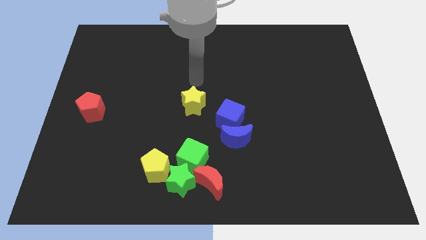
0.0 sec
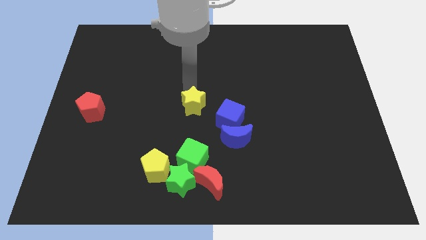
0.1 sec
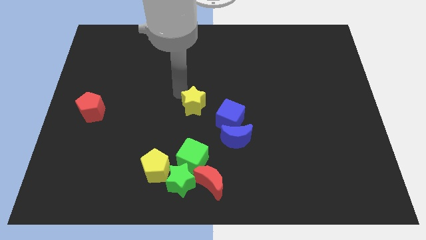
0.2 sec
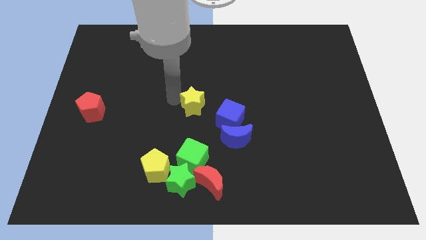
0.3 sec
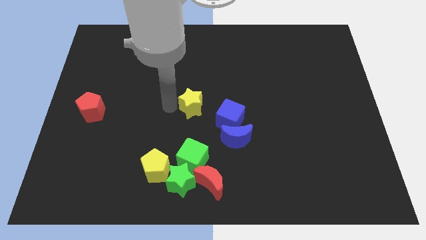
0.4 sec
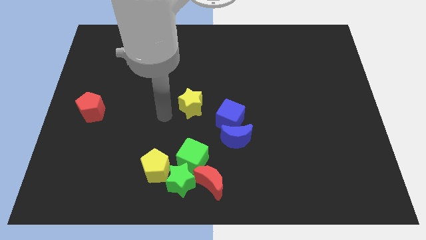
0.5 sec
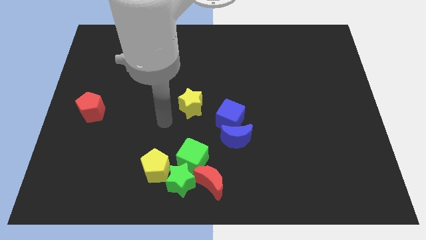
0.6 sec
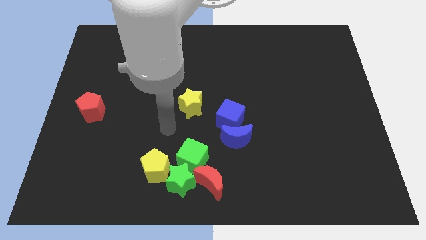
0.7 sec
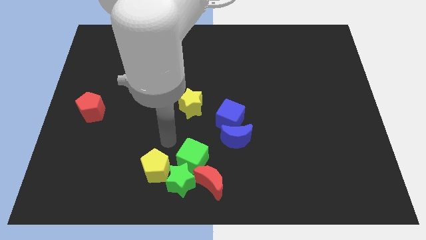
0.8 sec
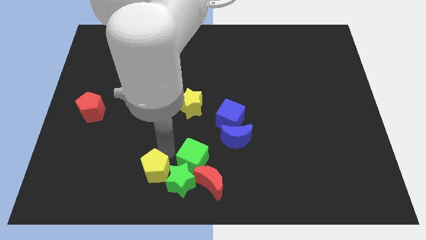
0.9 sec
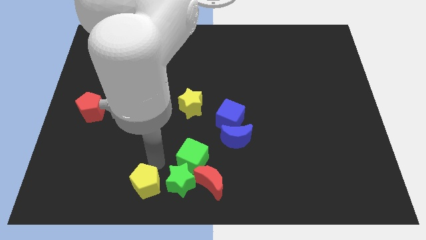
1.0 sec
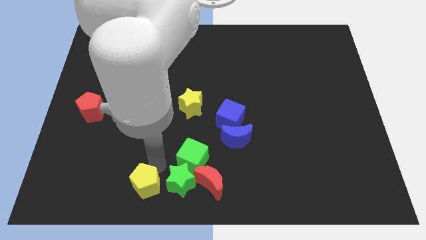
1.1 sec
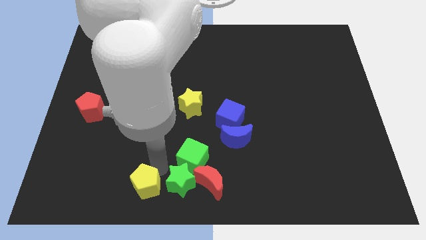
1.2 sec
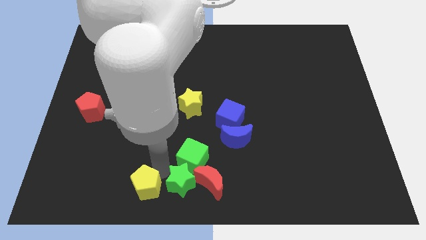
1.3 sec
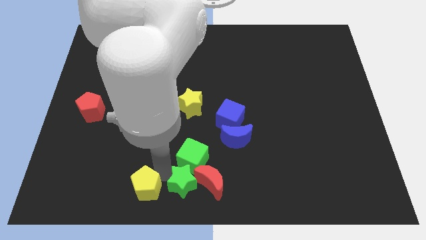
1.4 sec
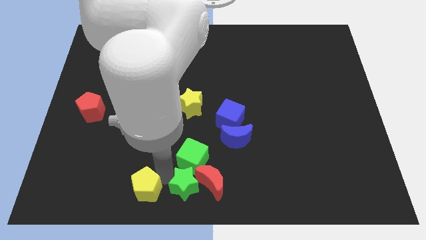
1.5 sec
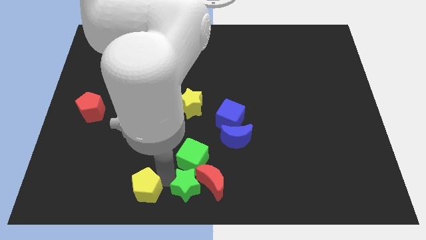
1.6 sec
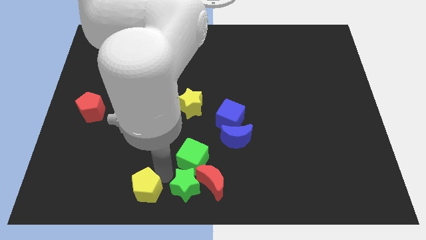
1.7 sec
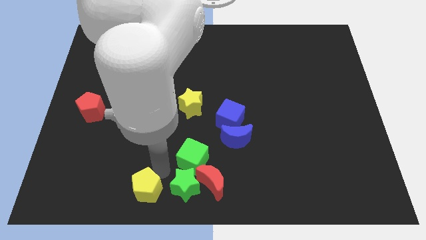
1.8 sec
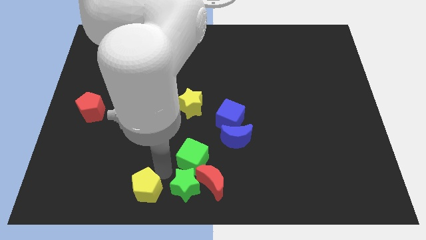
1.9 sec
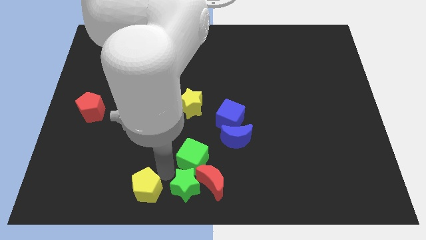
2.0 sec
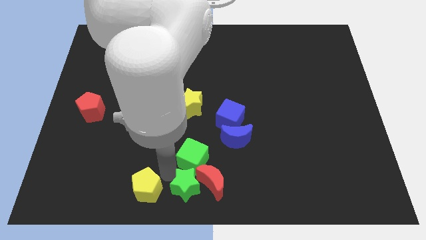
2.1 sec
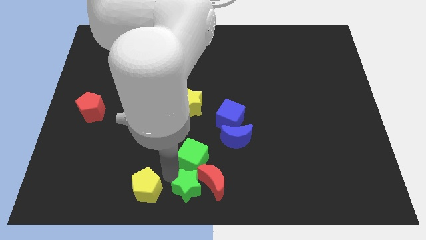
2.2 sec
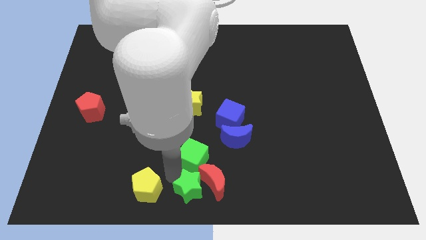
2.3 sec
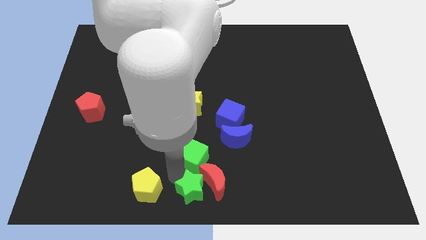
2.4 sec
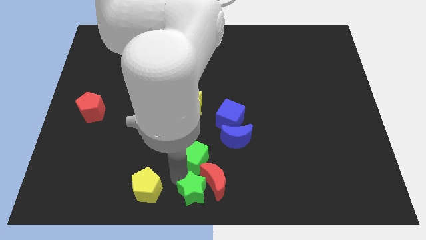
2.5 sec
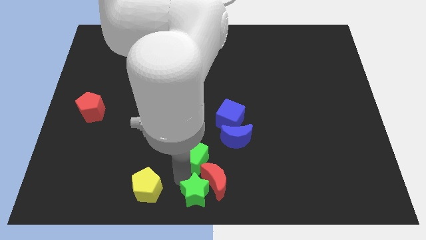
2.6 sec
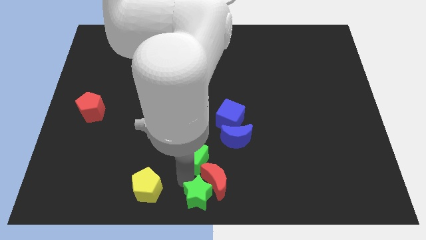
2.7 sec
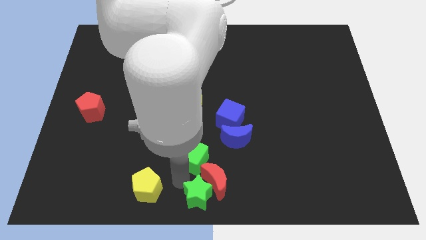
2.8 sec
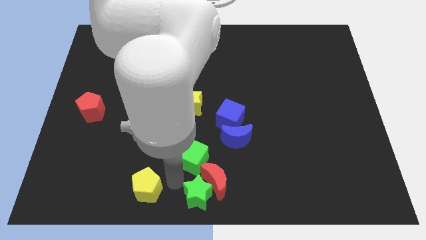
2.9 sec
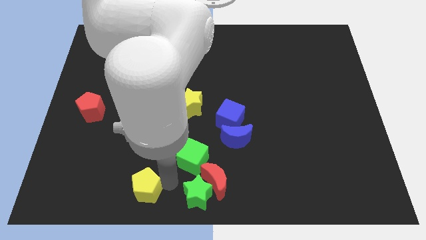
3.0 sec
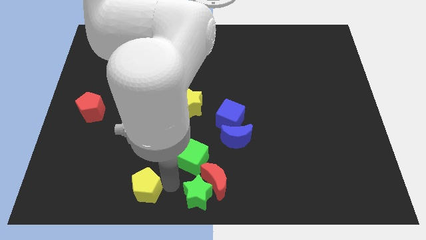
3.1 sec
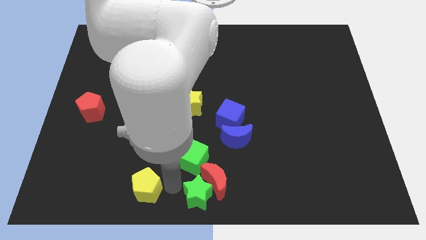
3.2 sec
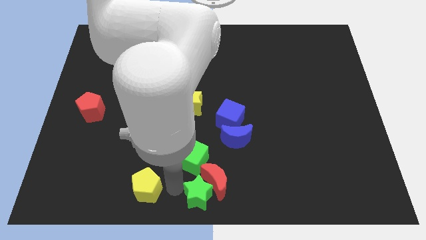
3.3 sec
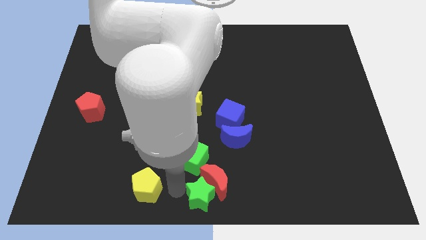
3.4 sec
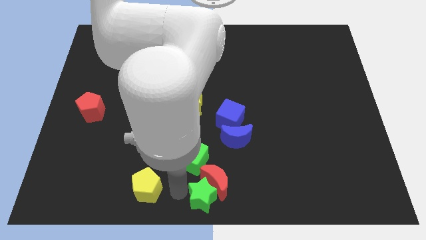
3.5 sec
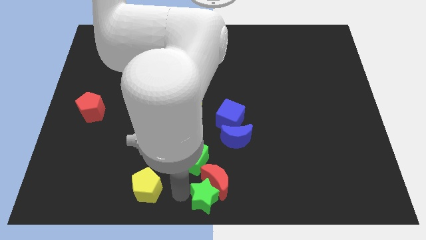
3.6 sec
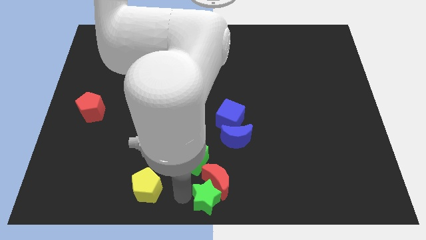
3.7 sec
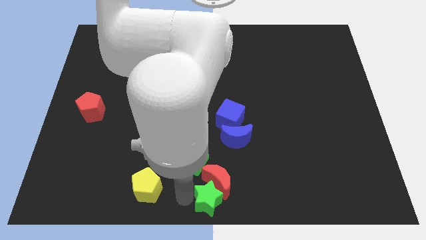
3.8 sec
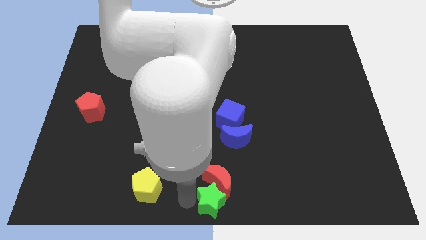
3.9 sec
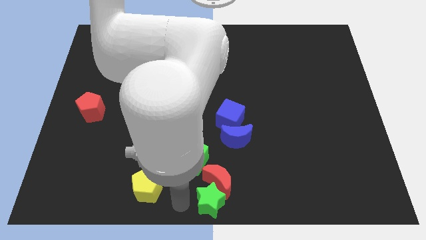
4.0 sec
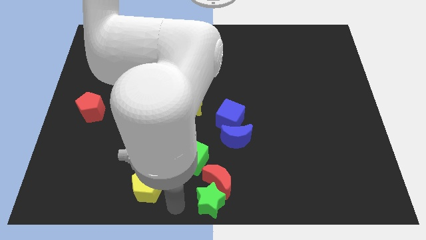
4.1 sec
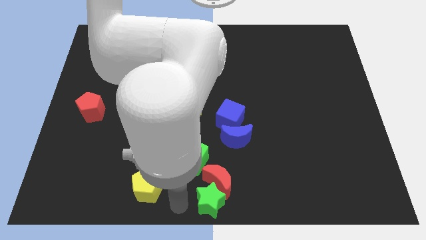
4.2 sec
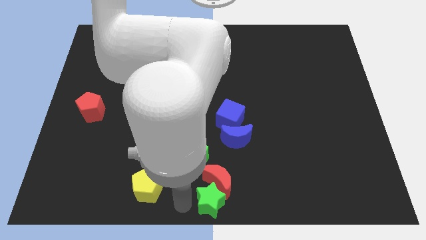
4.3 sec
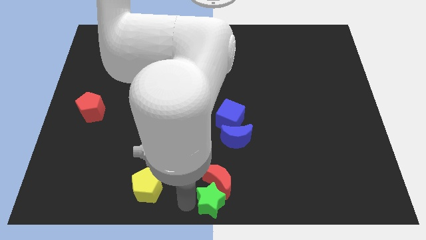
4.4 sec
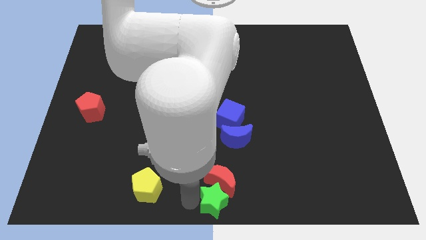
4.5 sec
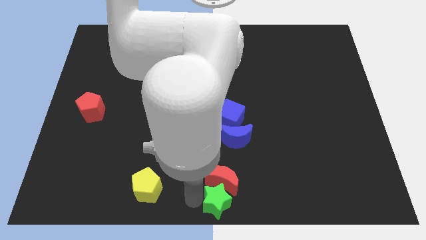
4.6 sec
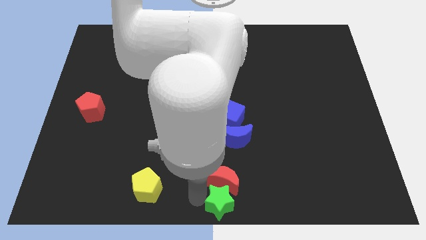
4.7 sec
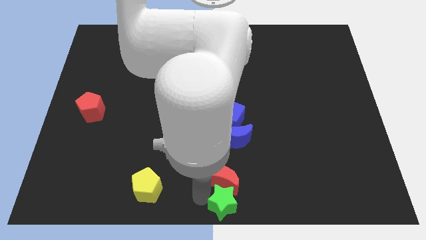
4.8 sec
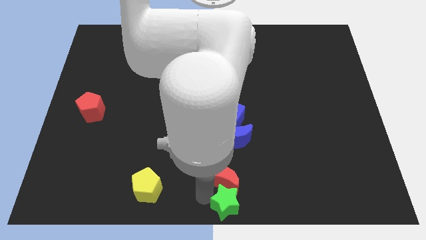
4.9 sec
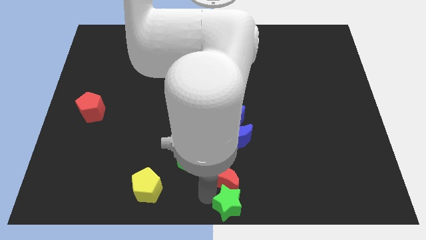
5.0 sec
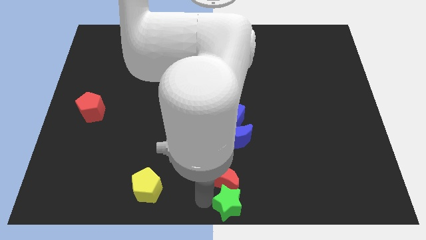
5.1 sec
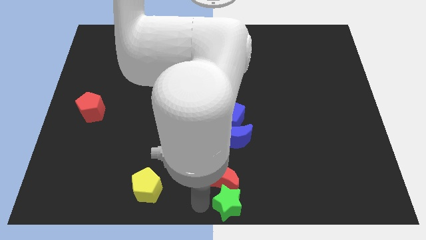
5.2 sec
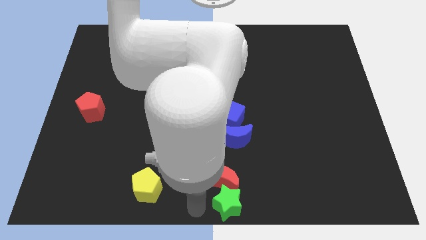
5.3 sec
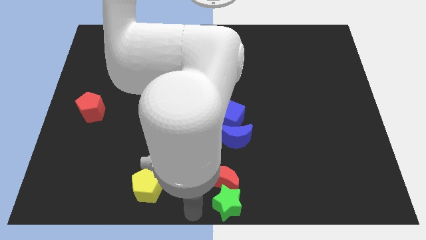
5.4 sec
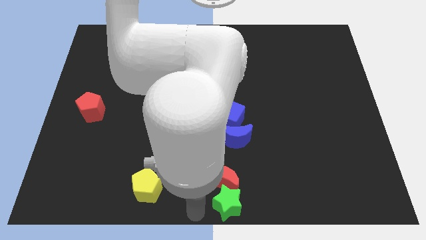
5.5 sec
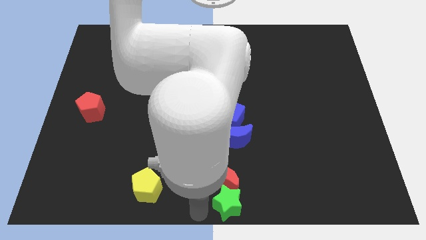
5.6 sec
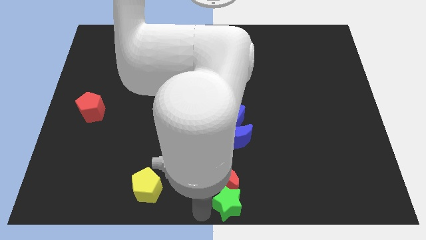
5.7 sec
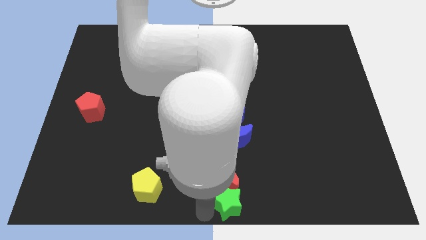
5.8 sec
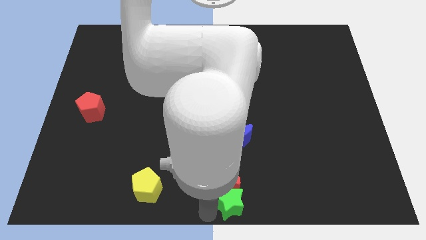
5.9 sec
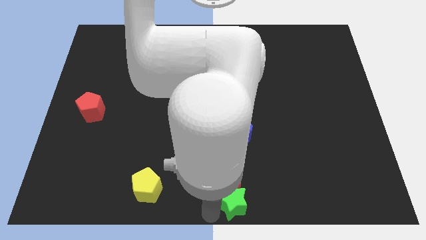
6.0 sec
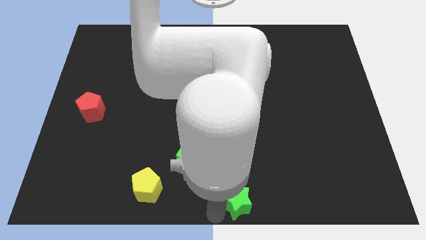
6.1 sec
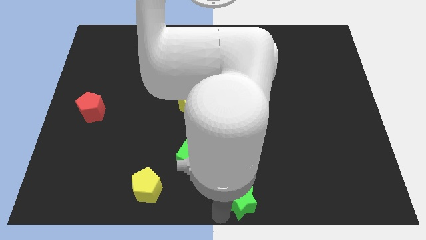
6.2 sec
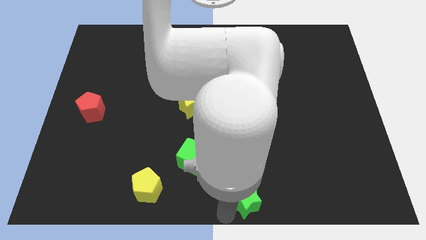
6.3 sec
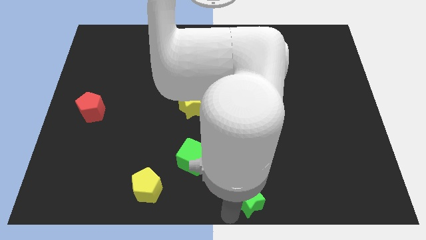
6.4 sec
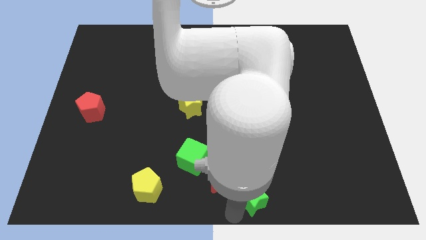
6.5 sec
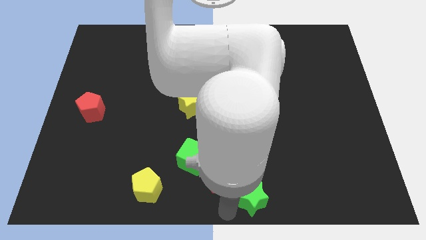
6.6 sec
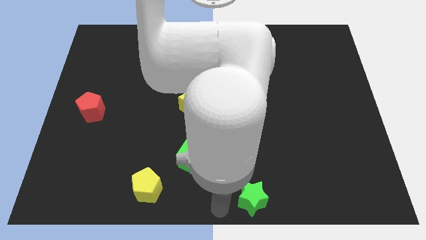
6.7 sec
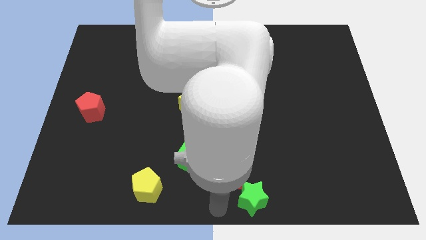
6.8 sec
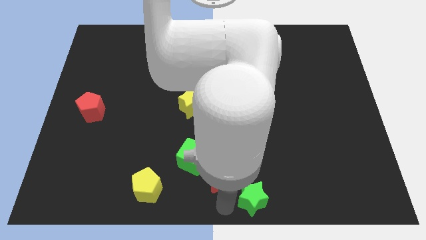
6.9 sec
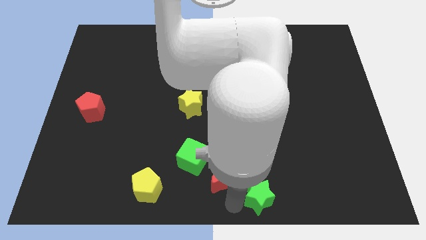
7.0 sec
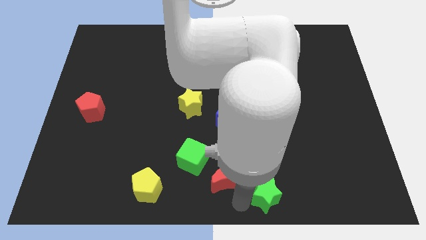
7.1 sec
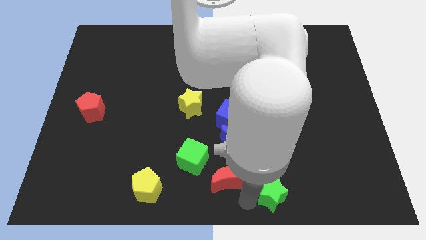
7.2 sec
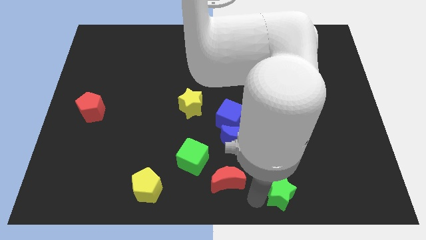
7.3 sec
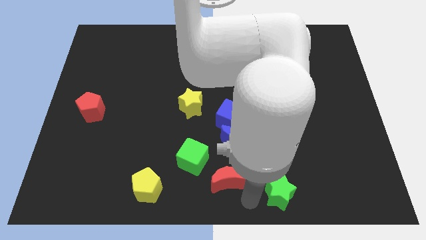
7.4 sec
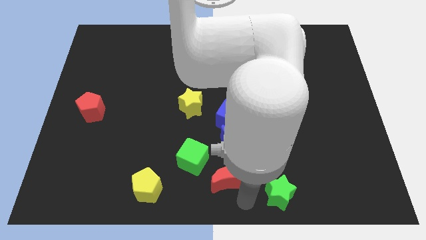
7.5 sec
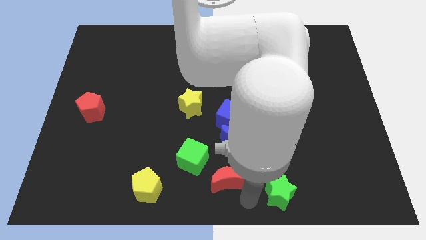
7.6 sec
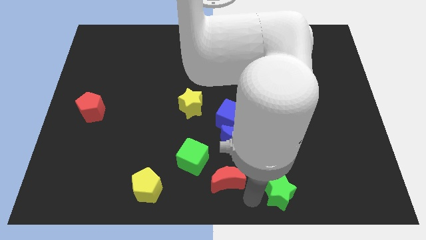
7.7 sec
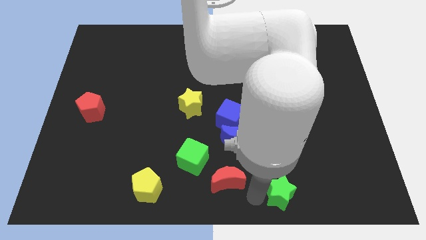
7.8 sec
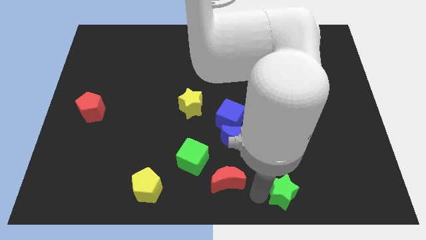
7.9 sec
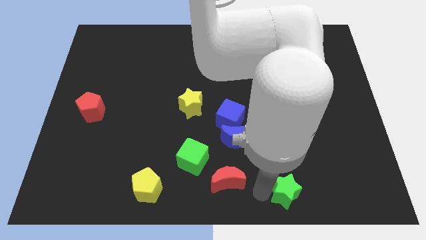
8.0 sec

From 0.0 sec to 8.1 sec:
move the green star to the right
